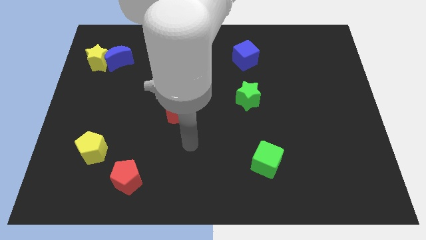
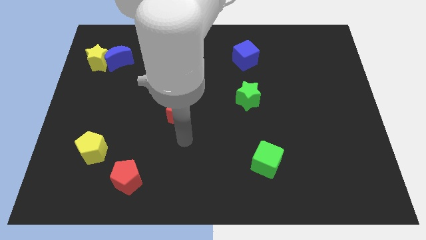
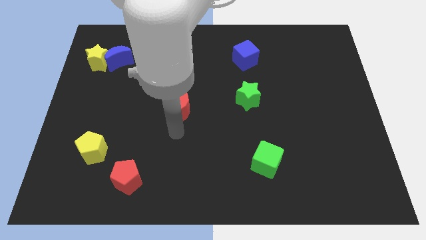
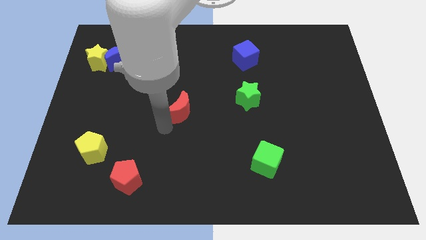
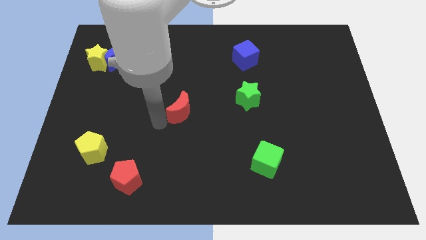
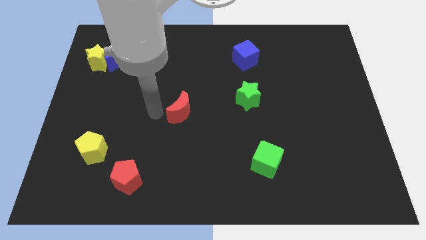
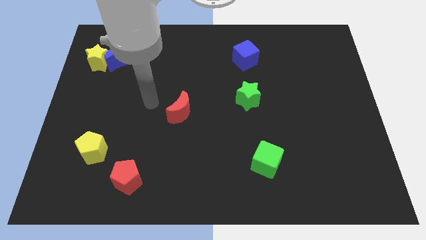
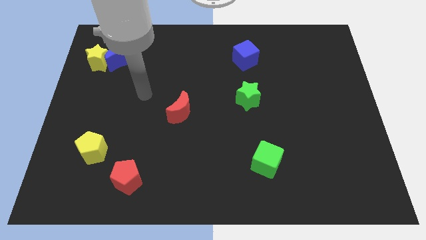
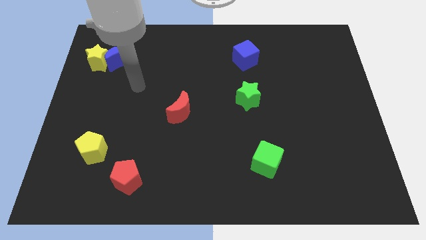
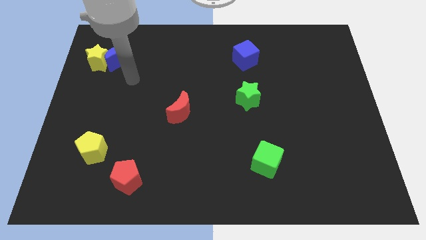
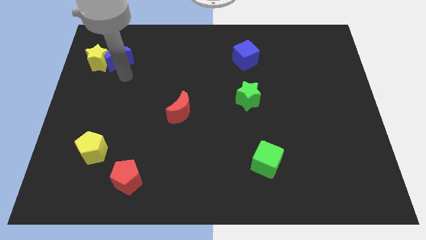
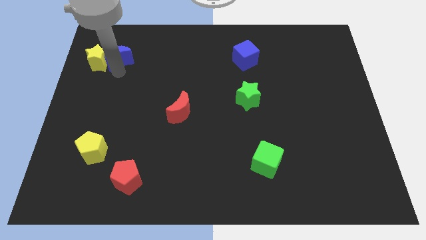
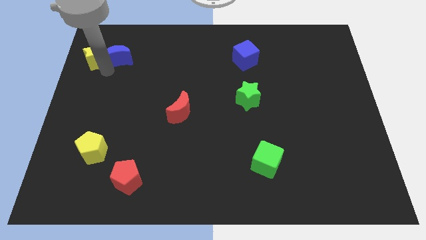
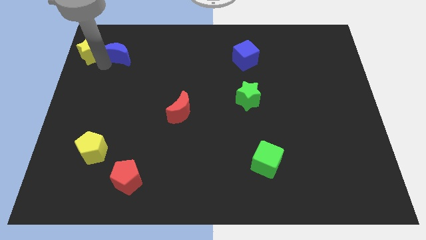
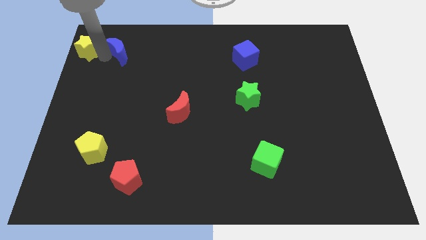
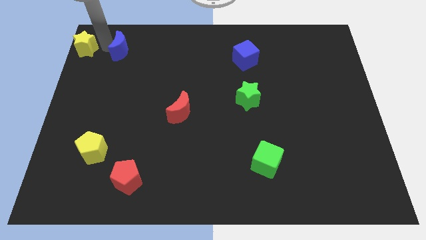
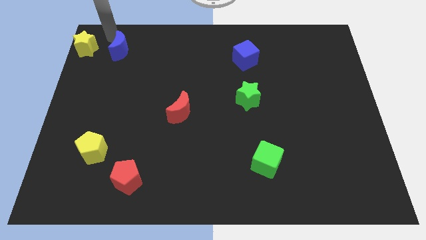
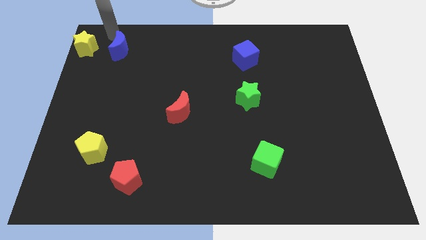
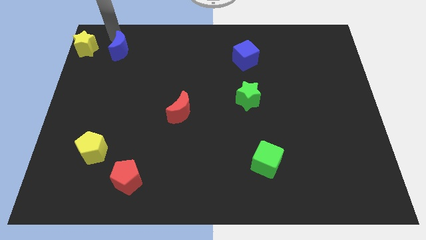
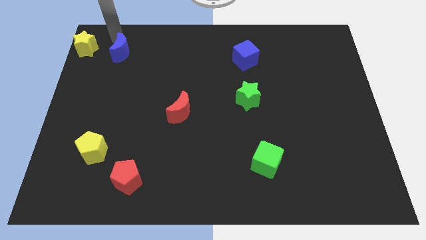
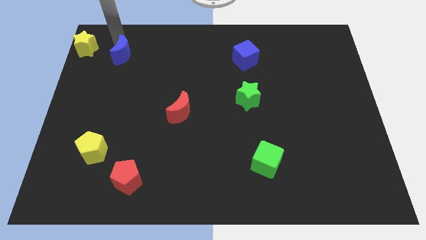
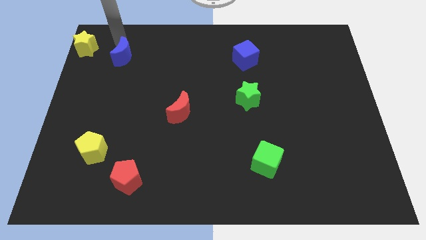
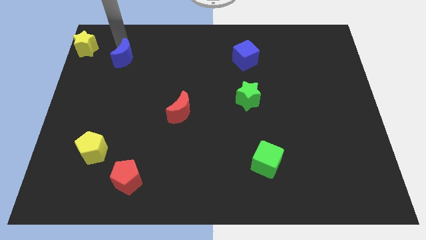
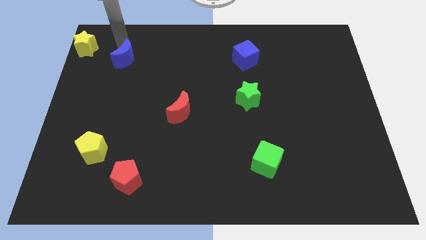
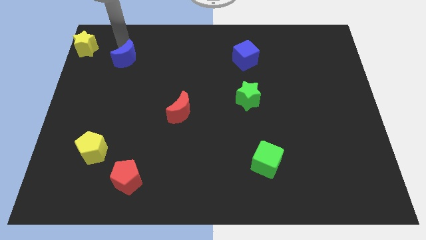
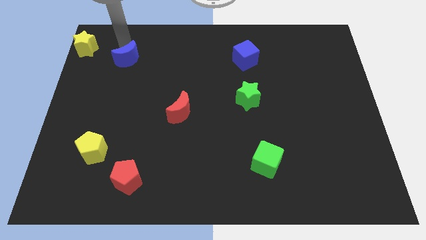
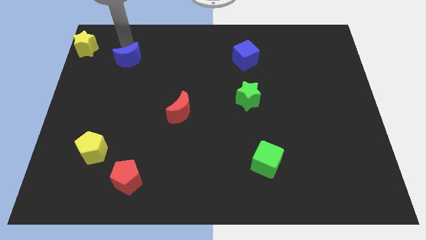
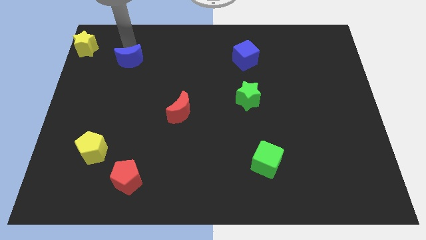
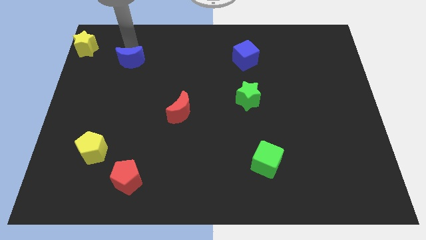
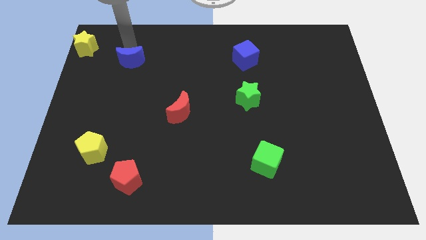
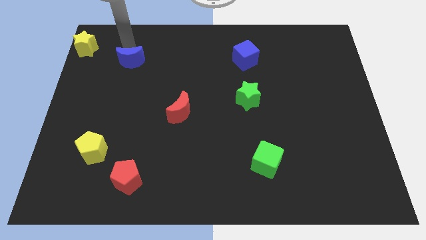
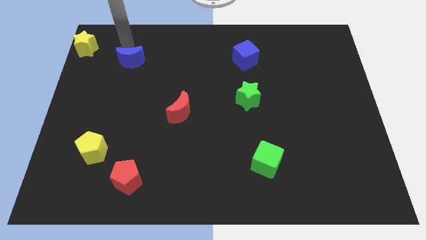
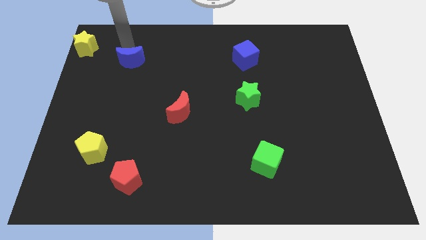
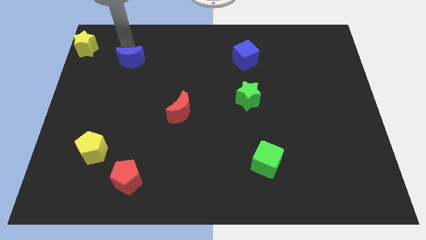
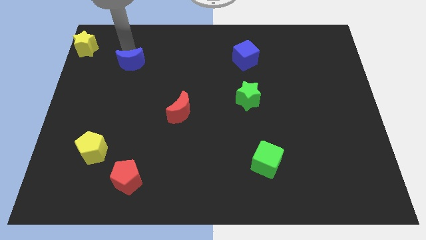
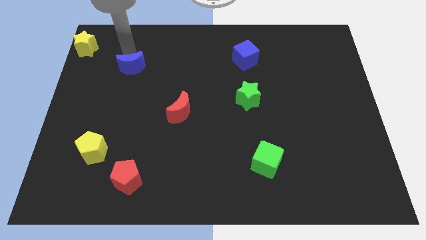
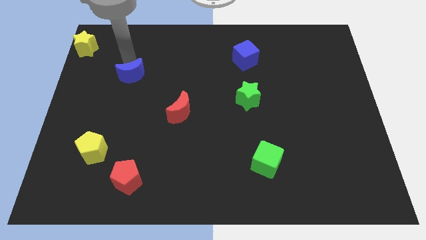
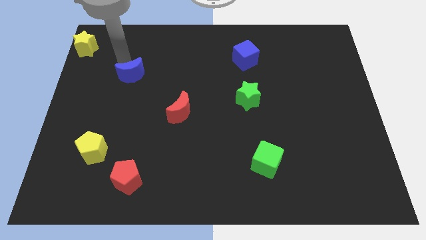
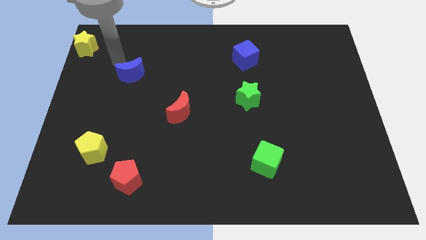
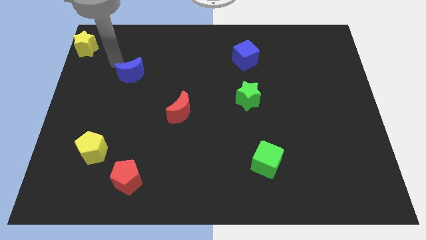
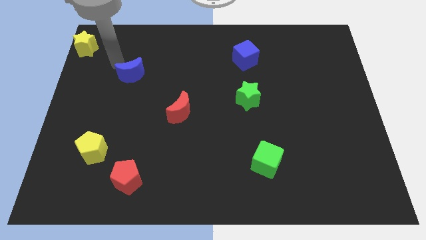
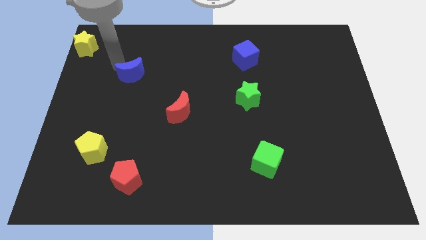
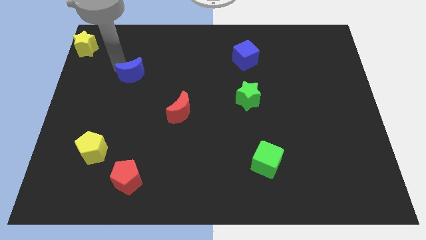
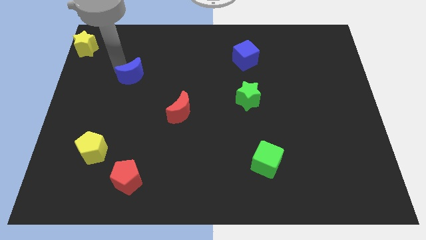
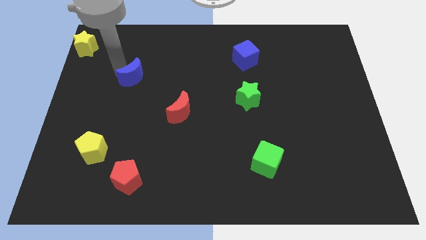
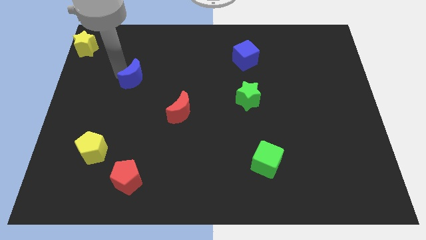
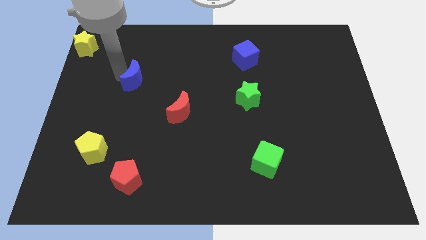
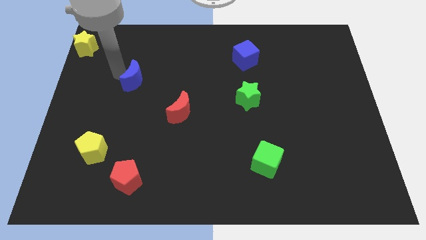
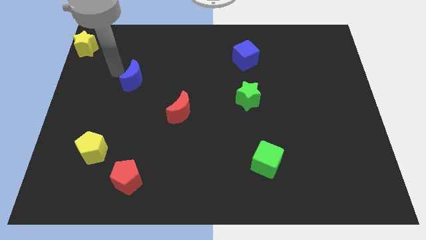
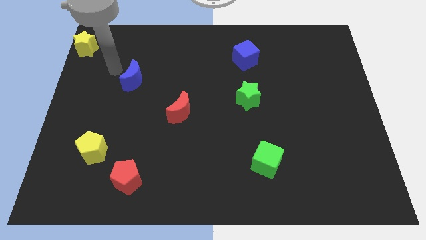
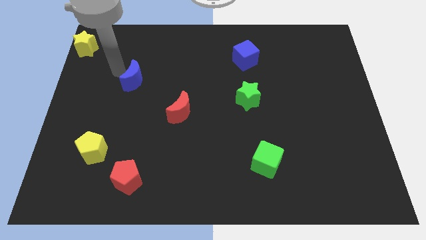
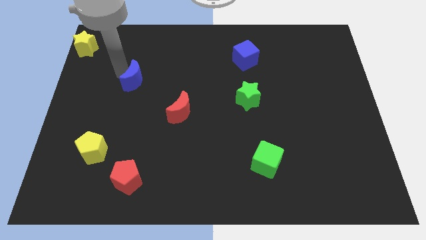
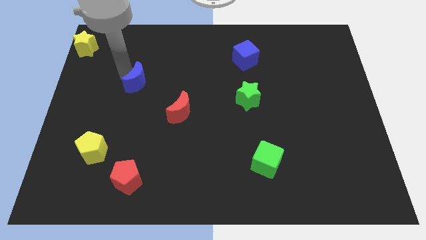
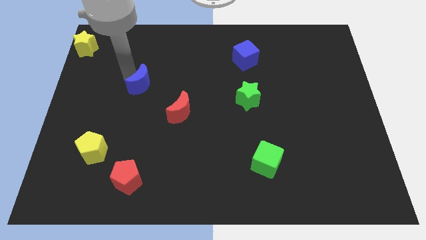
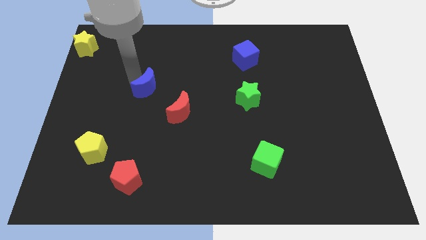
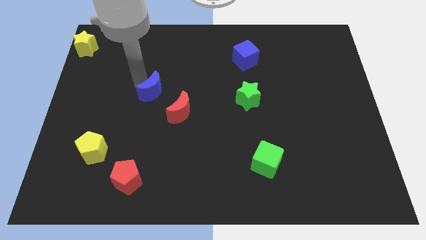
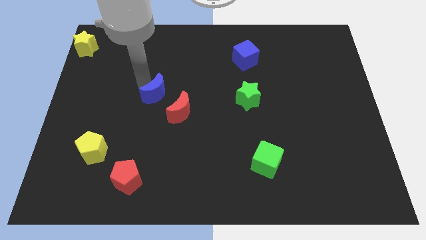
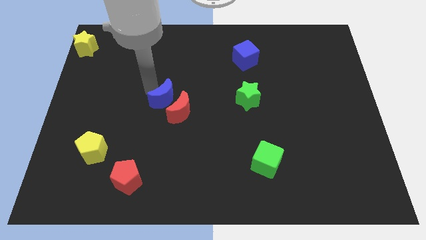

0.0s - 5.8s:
put the blue moon next to the red moon
